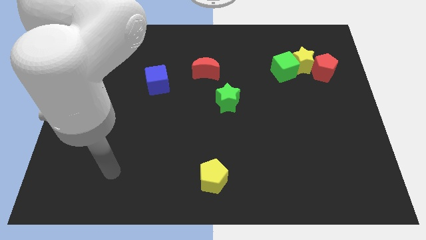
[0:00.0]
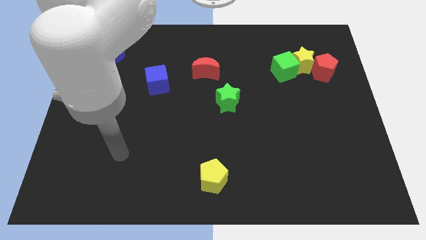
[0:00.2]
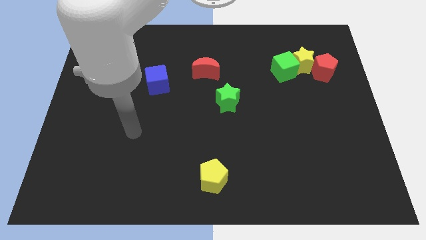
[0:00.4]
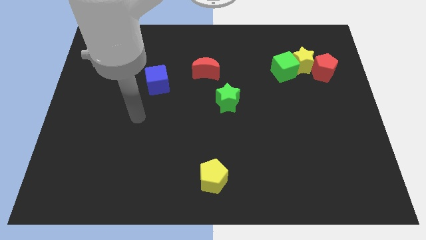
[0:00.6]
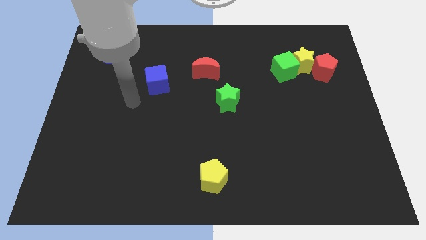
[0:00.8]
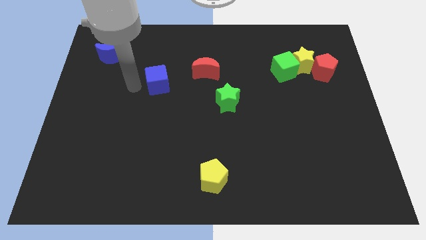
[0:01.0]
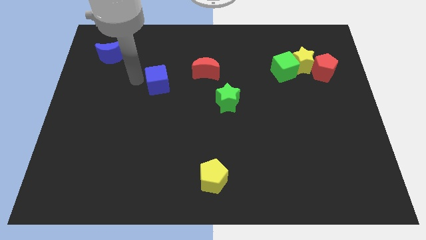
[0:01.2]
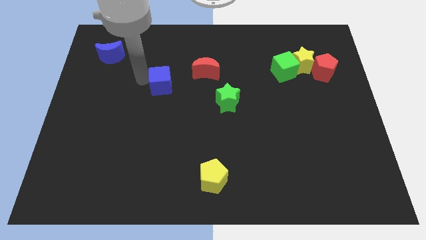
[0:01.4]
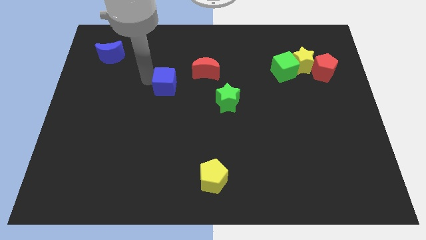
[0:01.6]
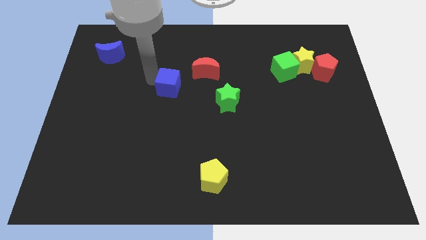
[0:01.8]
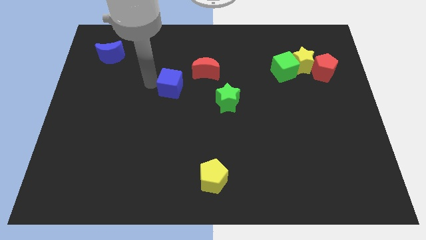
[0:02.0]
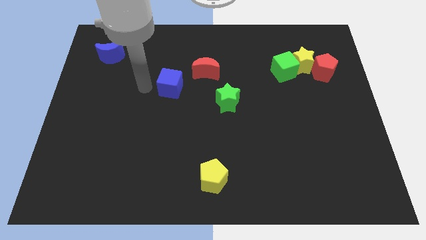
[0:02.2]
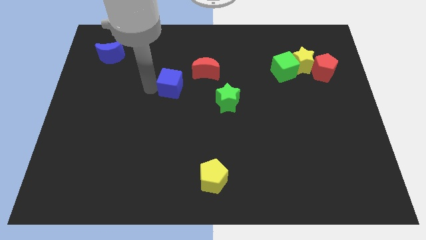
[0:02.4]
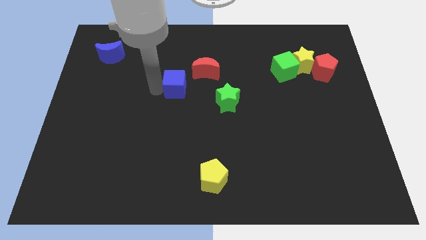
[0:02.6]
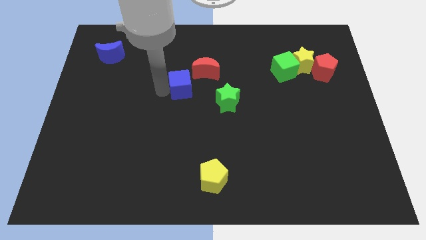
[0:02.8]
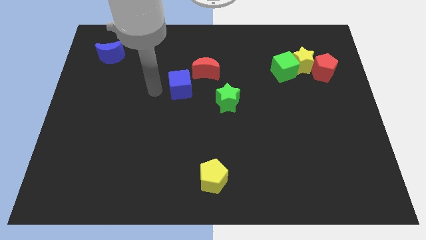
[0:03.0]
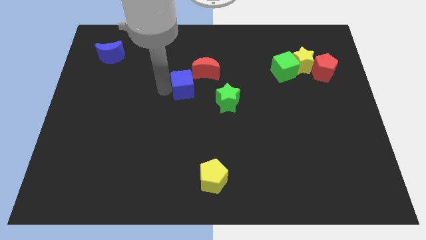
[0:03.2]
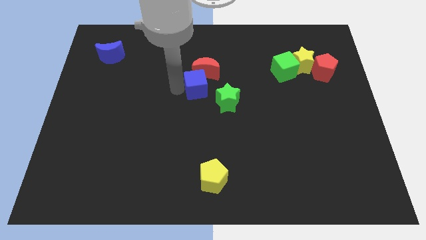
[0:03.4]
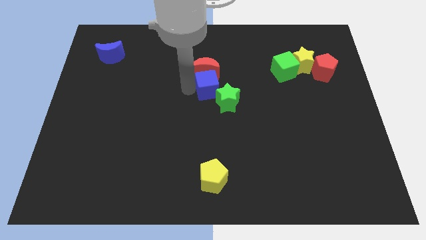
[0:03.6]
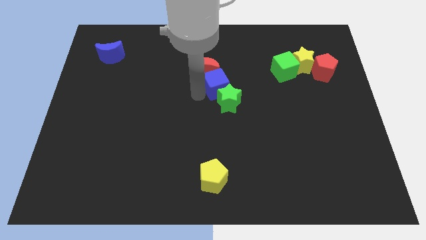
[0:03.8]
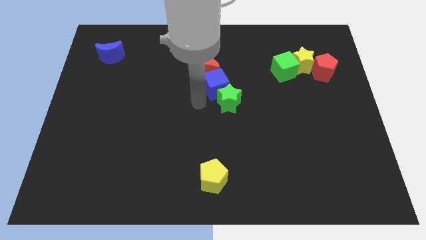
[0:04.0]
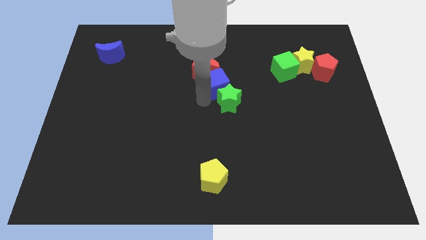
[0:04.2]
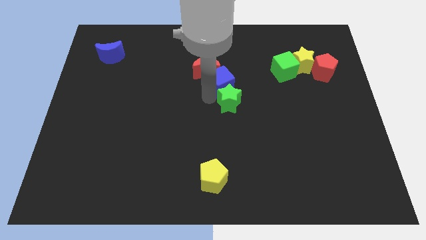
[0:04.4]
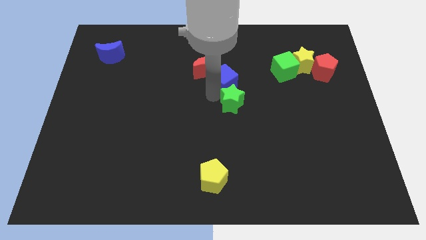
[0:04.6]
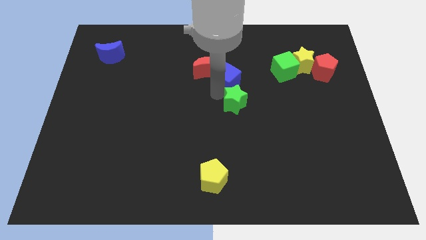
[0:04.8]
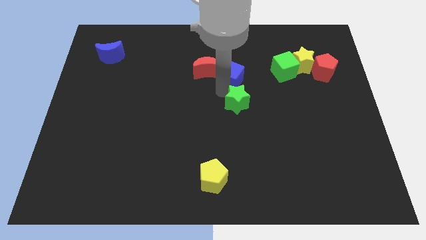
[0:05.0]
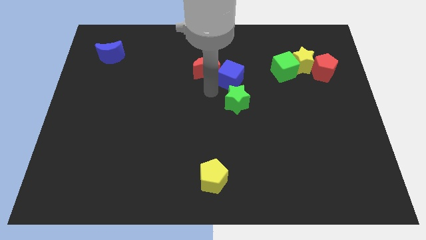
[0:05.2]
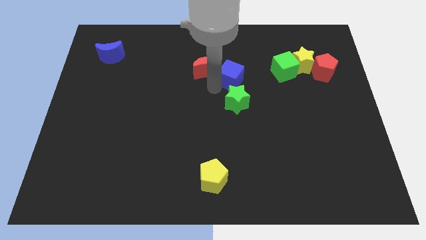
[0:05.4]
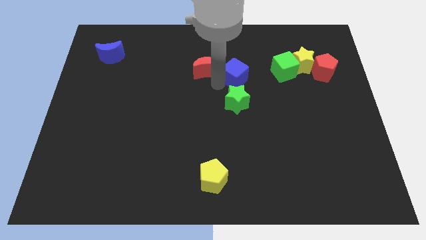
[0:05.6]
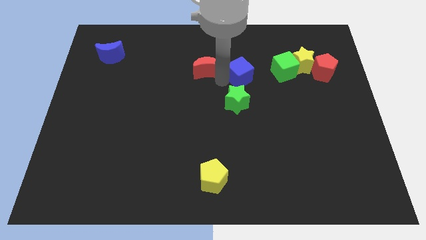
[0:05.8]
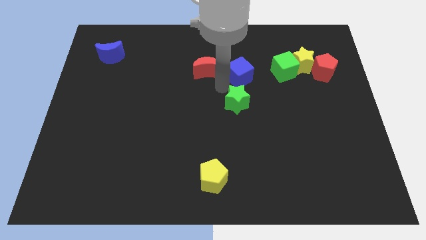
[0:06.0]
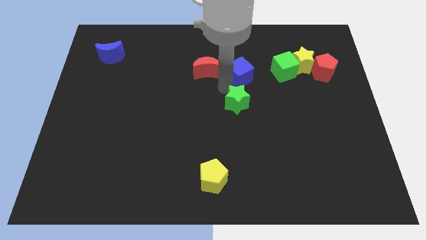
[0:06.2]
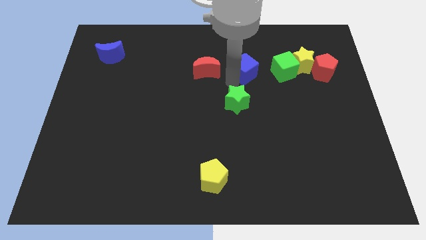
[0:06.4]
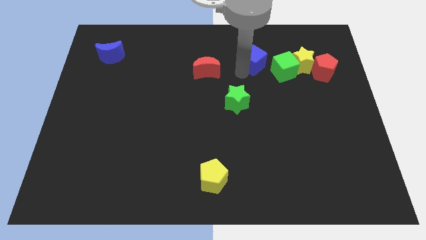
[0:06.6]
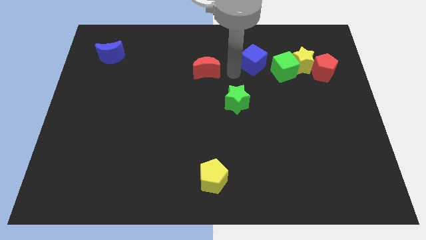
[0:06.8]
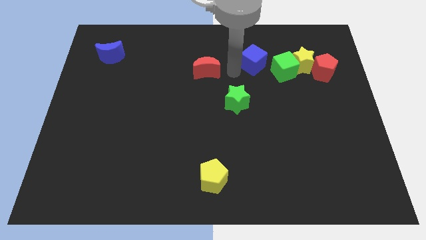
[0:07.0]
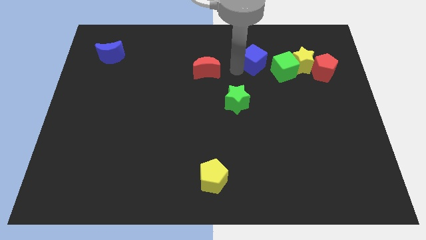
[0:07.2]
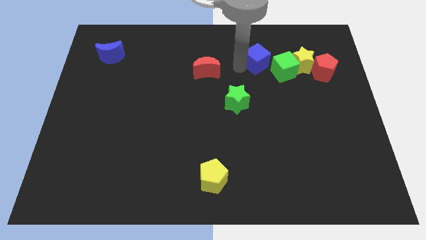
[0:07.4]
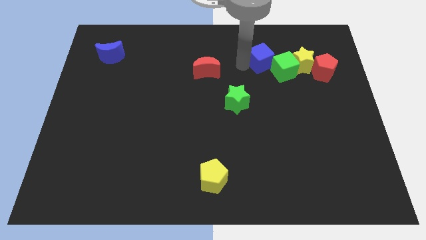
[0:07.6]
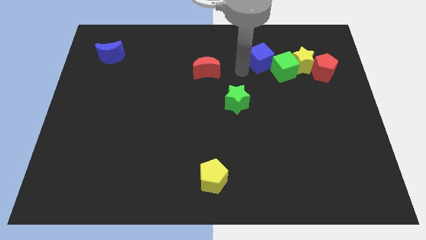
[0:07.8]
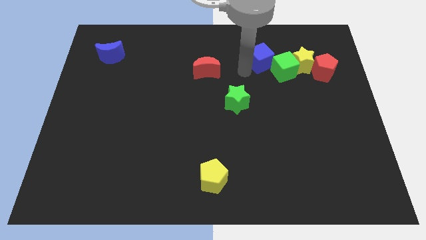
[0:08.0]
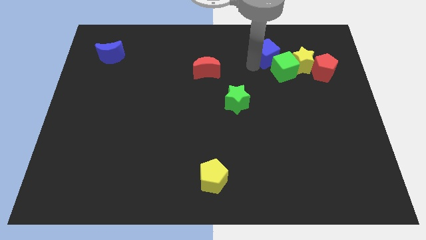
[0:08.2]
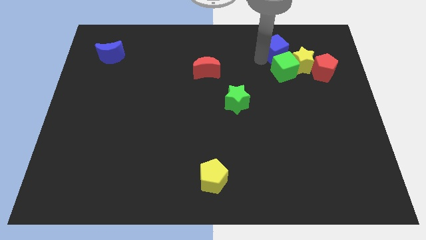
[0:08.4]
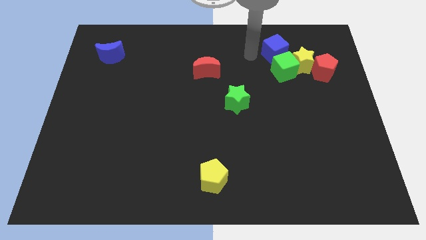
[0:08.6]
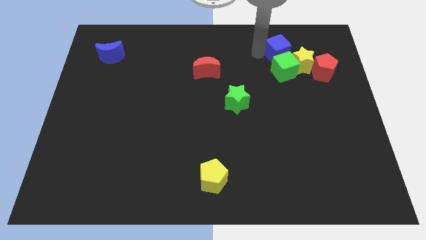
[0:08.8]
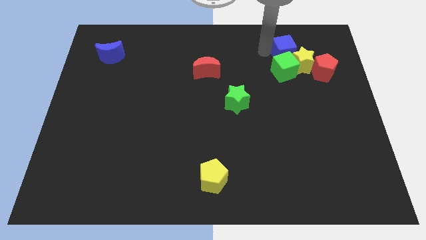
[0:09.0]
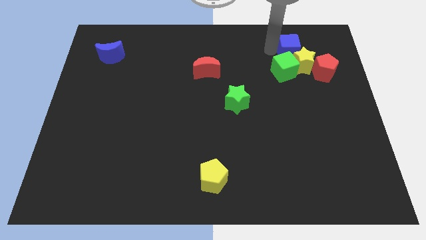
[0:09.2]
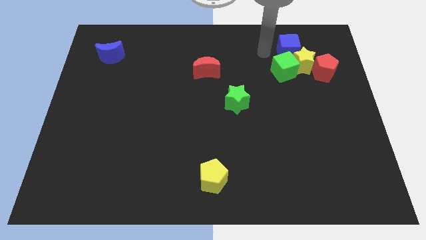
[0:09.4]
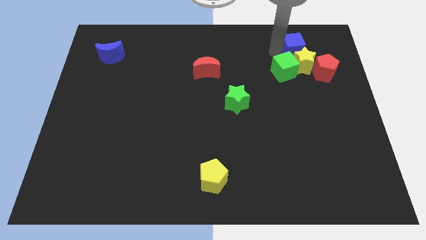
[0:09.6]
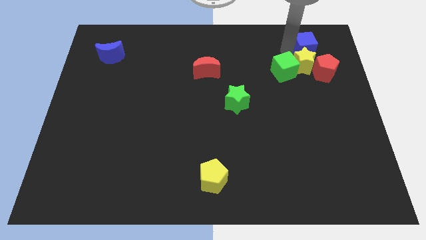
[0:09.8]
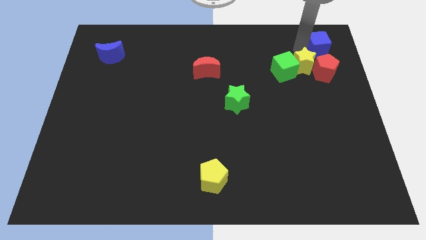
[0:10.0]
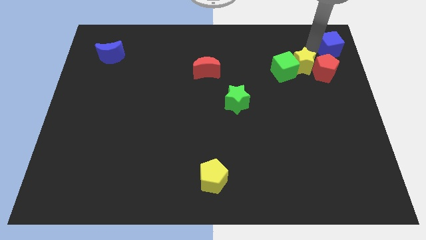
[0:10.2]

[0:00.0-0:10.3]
move the blue cube to the upper right corner

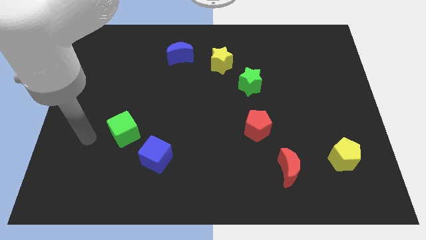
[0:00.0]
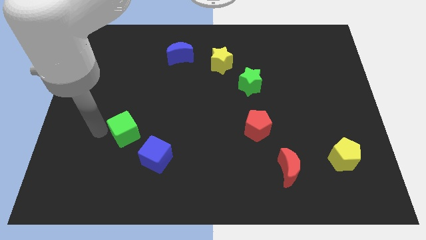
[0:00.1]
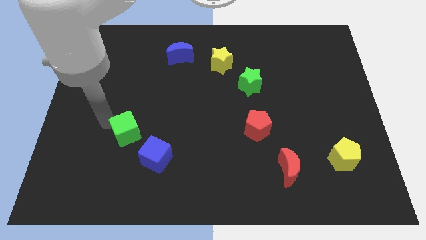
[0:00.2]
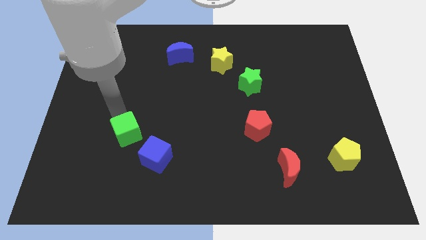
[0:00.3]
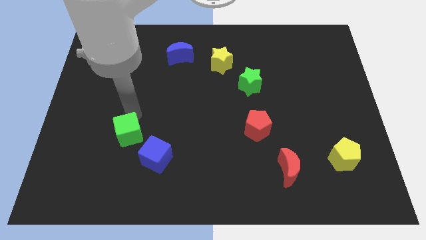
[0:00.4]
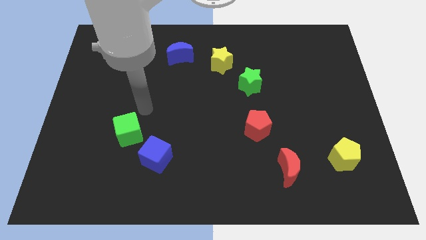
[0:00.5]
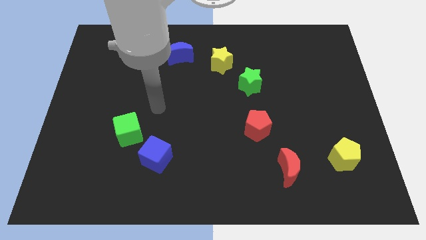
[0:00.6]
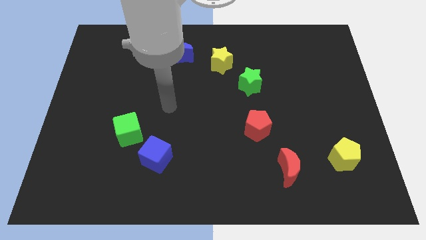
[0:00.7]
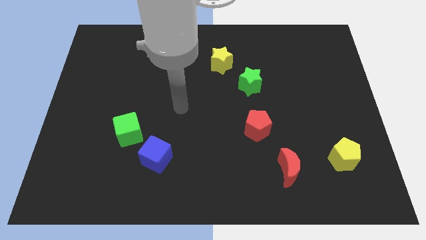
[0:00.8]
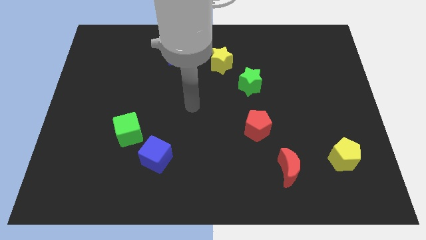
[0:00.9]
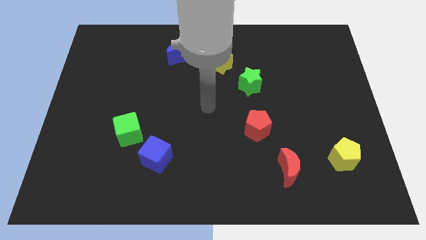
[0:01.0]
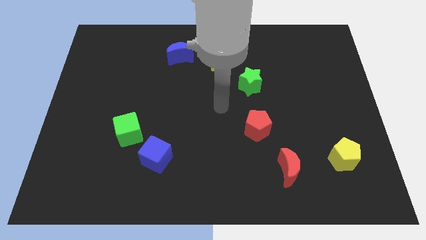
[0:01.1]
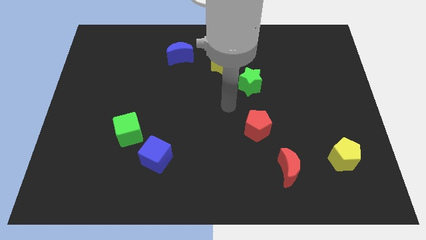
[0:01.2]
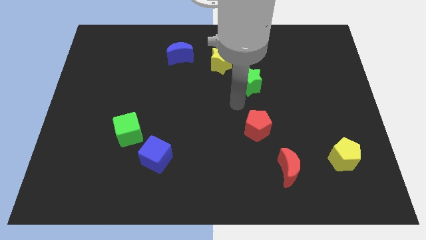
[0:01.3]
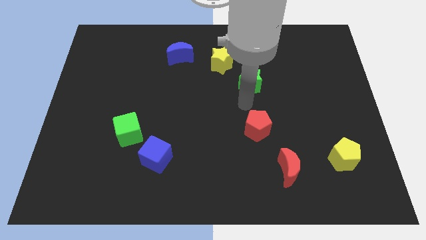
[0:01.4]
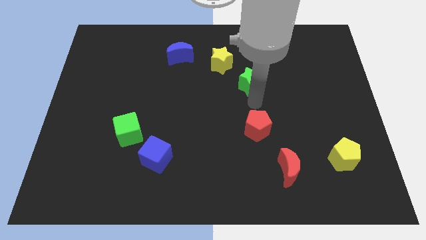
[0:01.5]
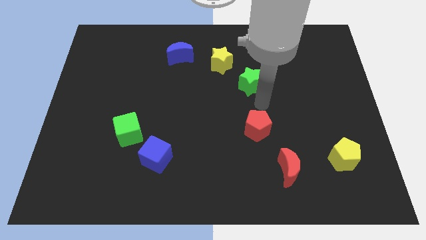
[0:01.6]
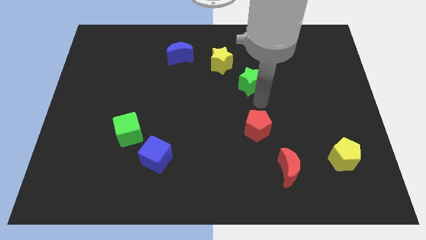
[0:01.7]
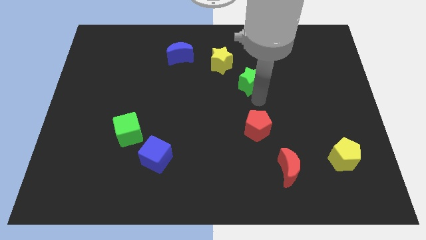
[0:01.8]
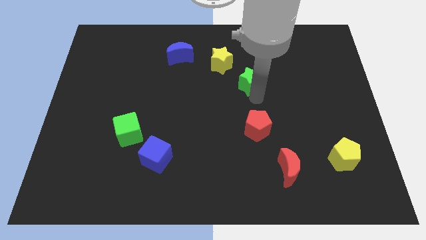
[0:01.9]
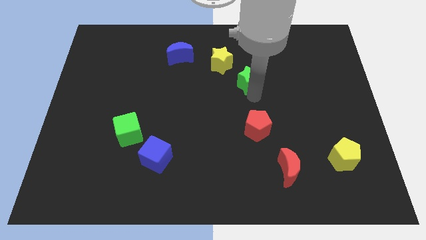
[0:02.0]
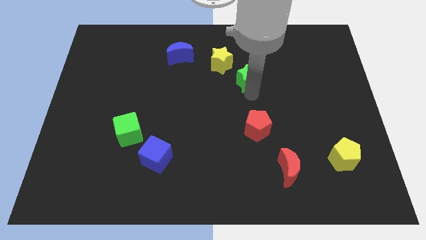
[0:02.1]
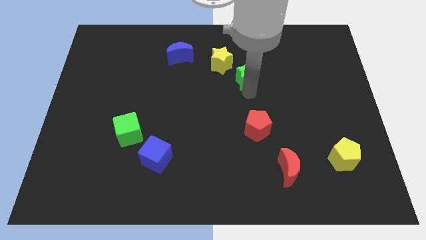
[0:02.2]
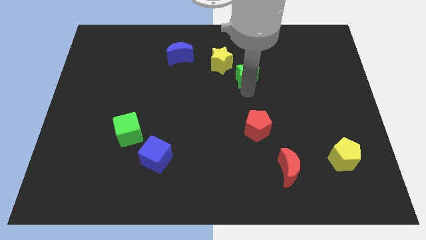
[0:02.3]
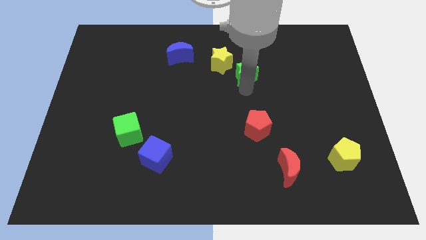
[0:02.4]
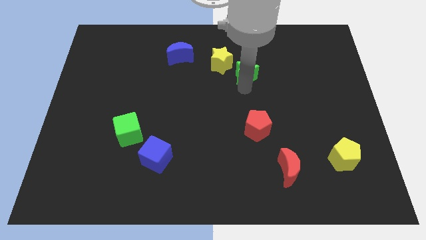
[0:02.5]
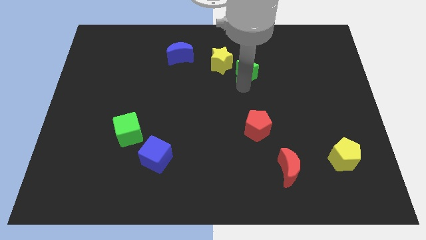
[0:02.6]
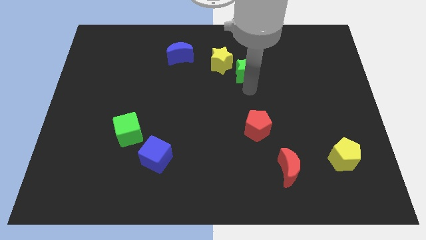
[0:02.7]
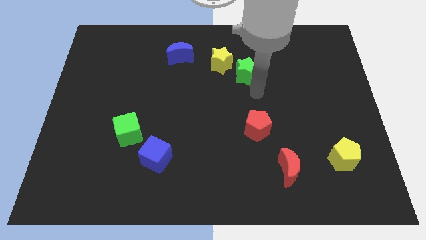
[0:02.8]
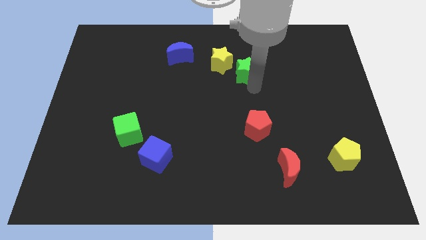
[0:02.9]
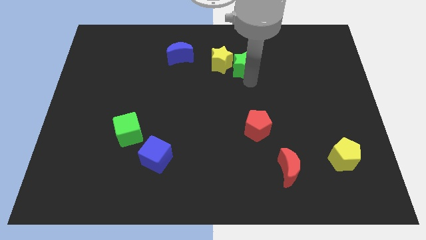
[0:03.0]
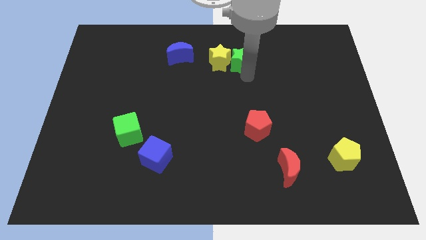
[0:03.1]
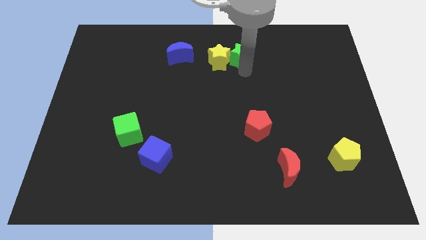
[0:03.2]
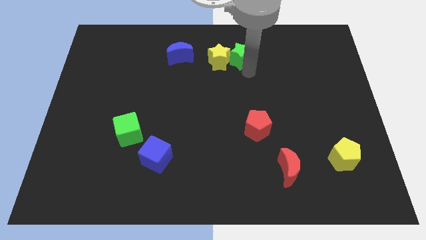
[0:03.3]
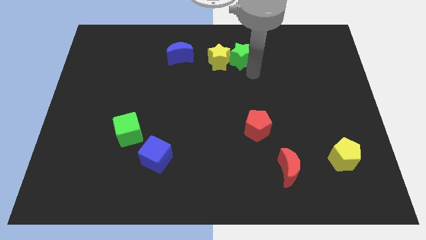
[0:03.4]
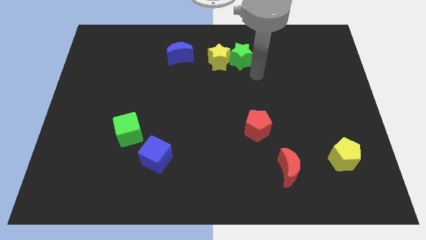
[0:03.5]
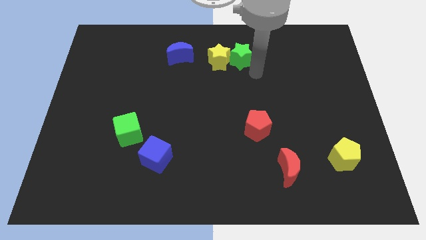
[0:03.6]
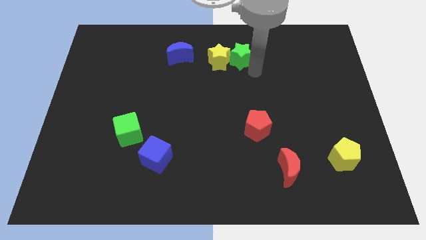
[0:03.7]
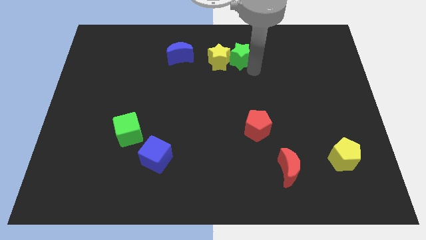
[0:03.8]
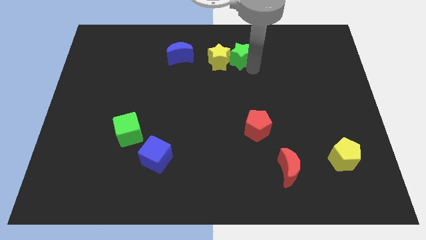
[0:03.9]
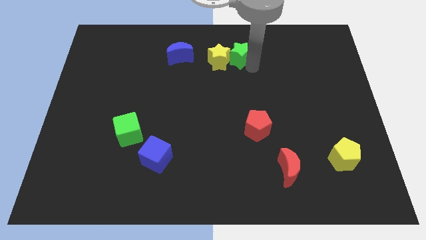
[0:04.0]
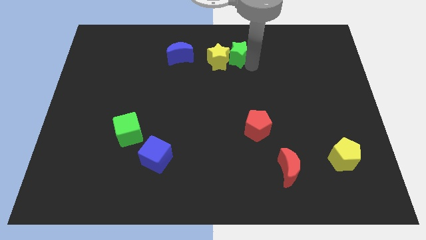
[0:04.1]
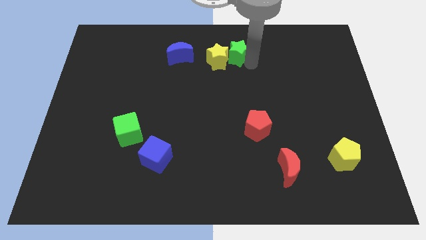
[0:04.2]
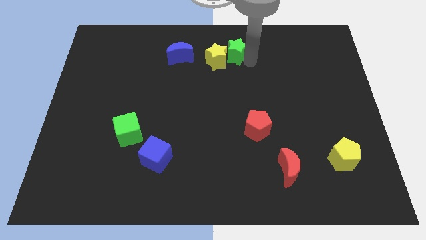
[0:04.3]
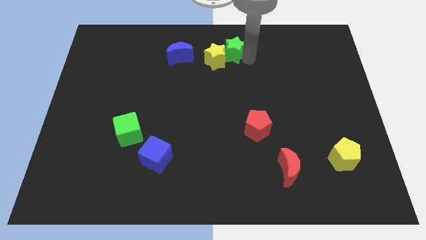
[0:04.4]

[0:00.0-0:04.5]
slide the green star to the towards your base
